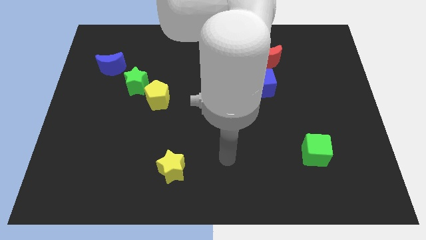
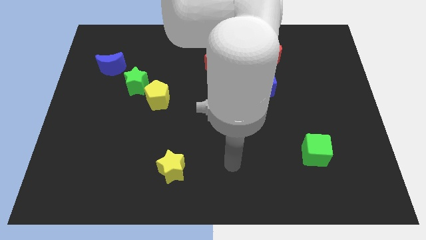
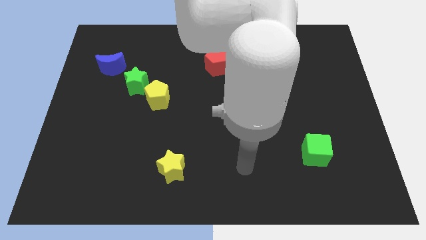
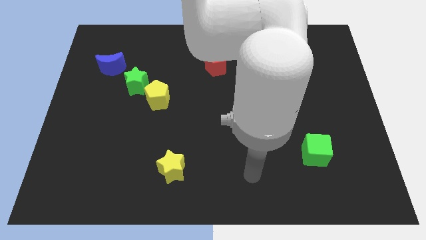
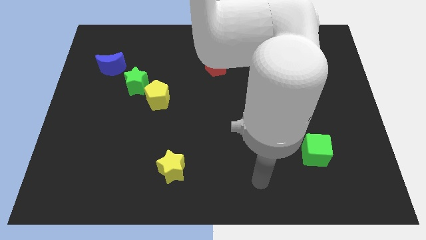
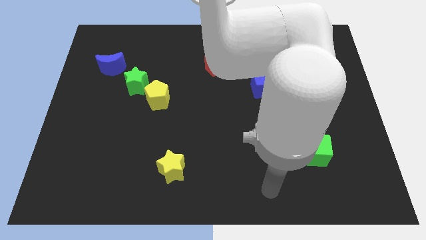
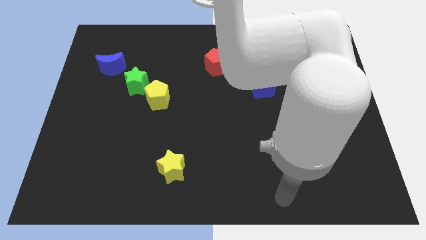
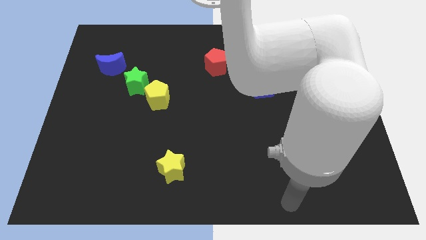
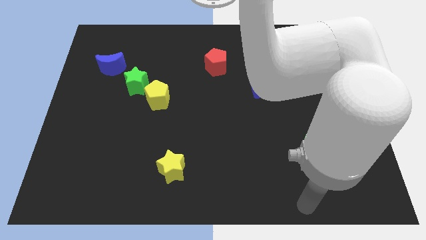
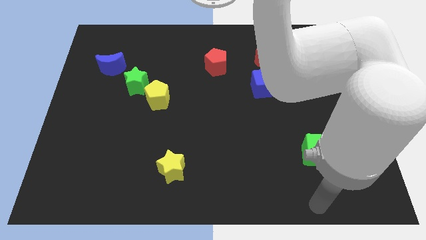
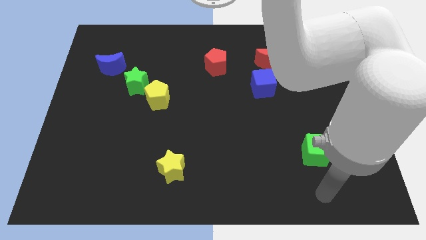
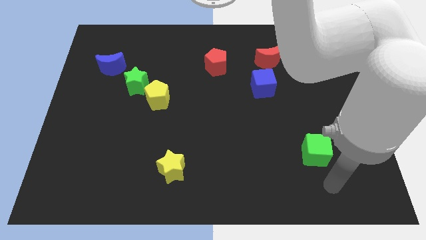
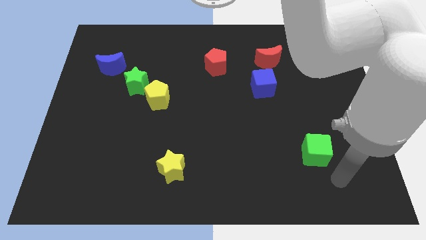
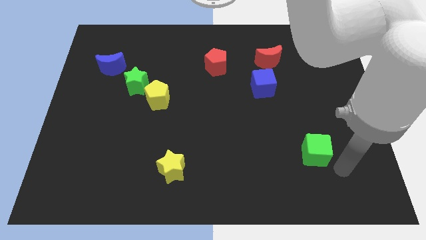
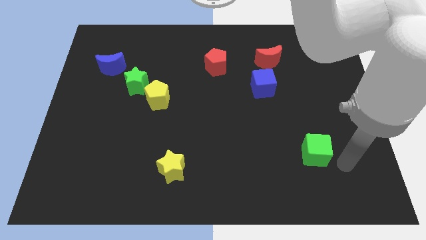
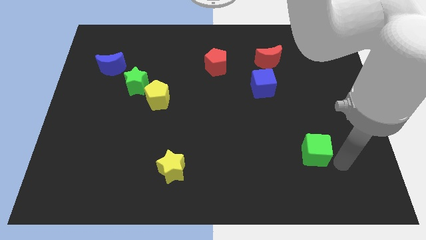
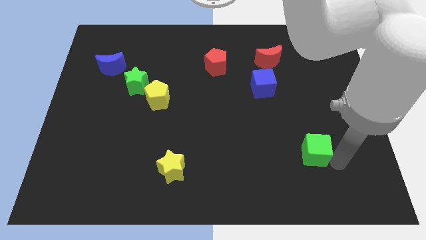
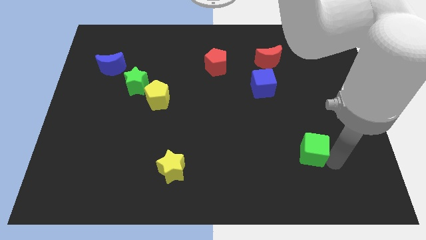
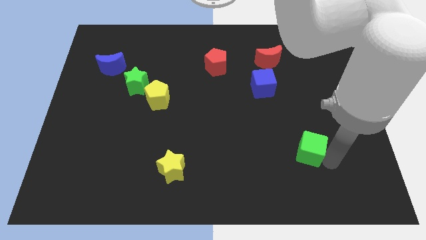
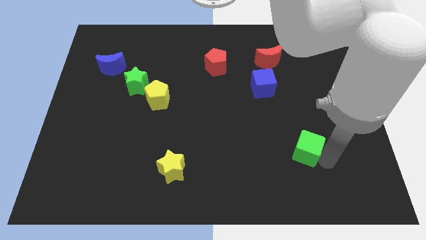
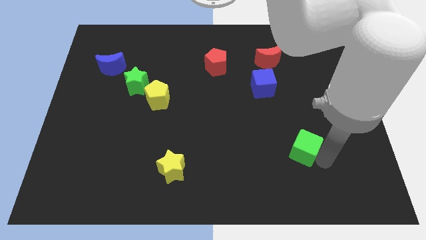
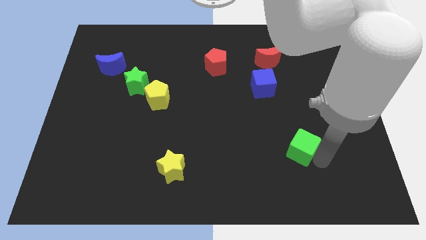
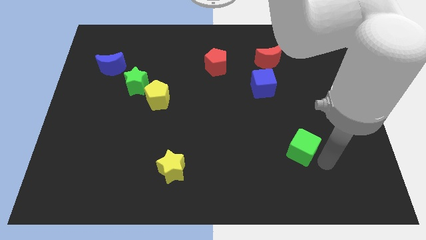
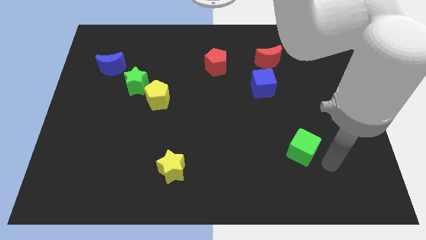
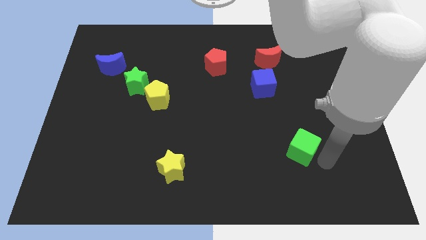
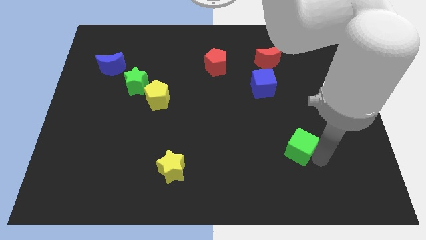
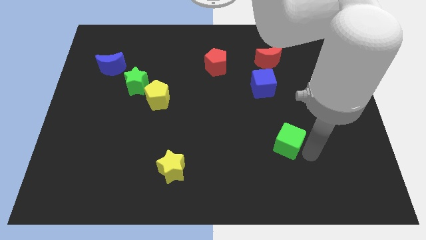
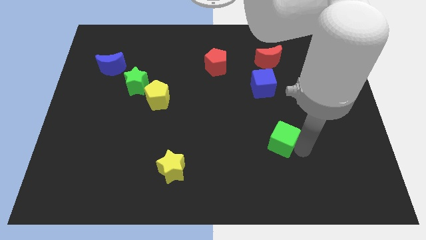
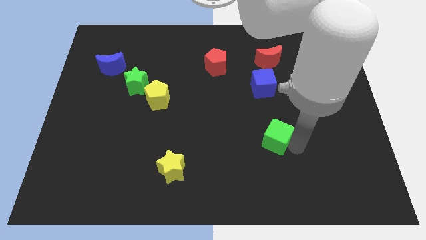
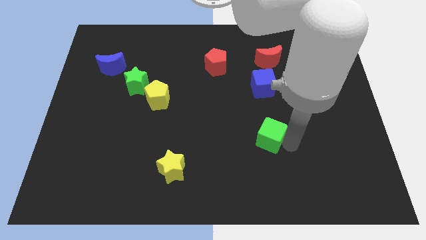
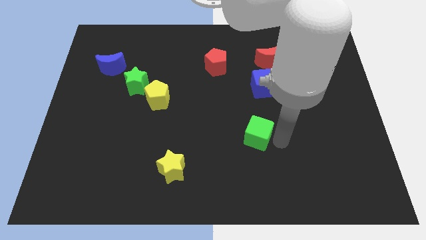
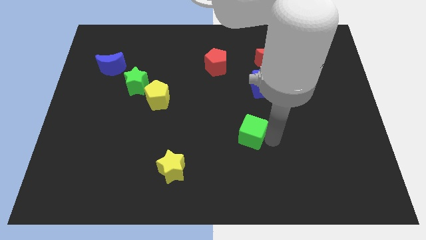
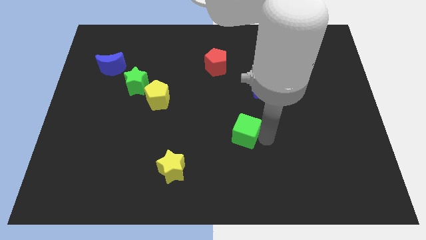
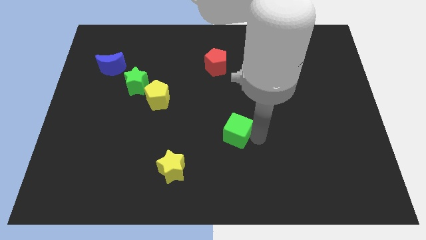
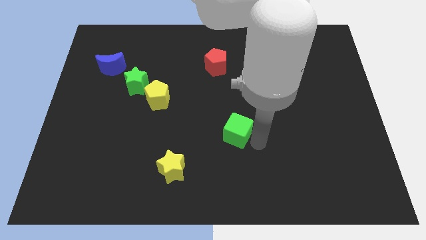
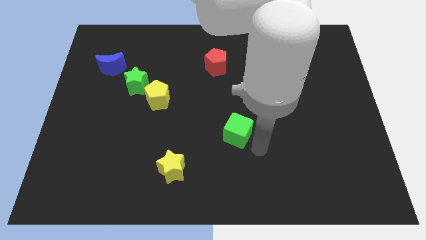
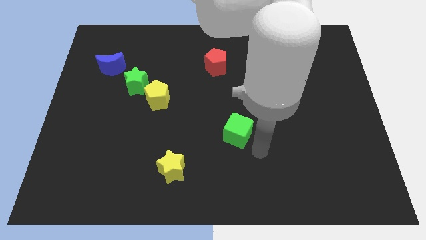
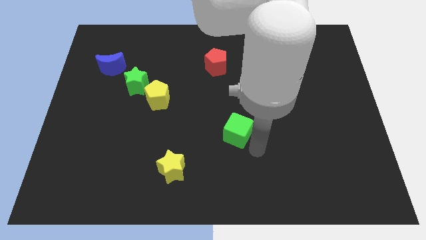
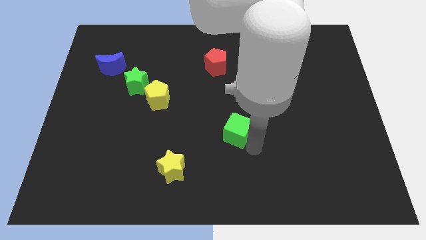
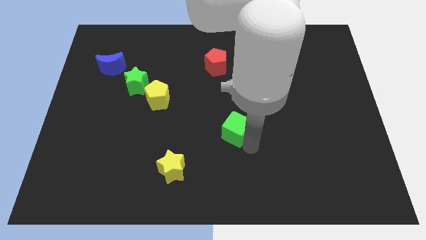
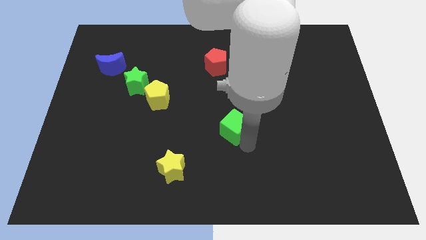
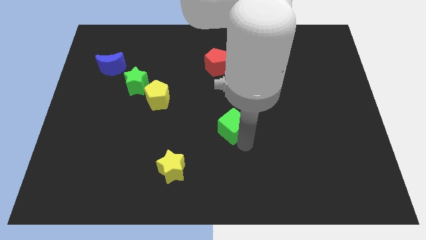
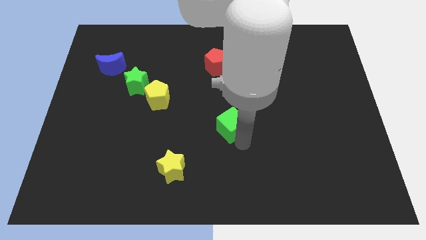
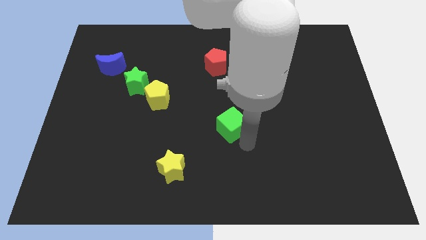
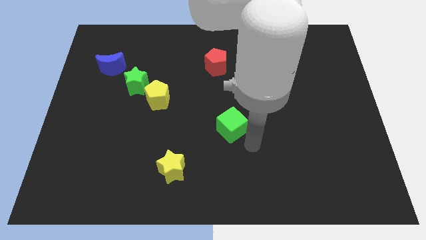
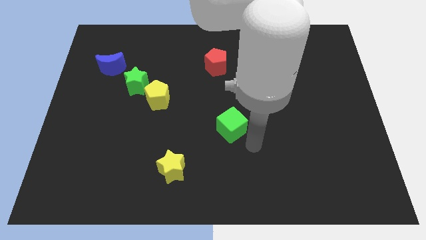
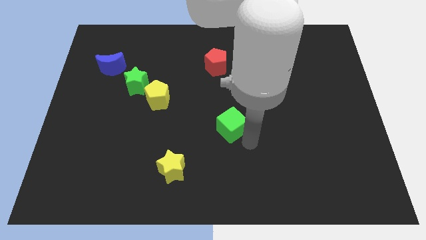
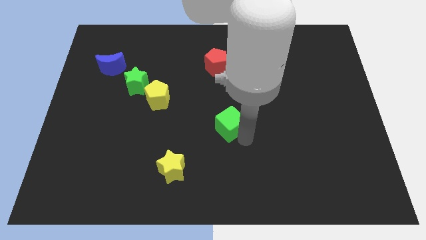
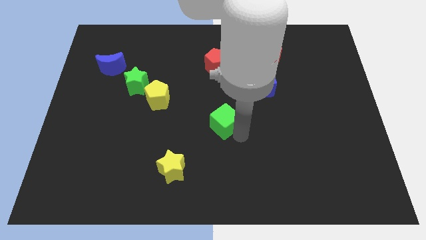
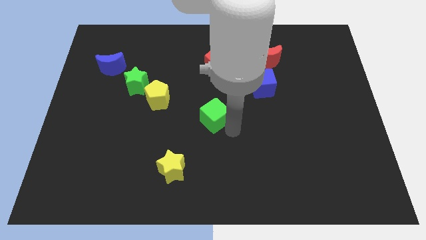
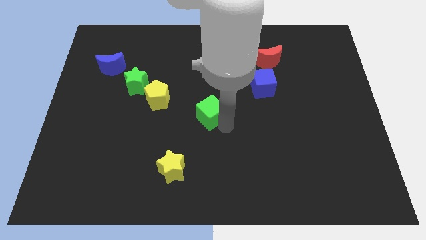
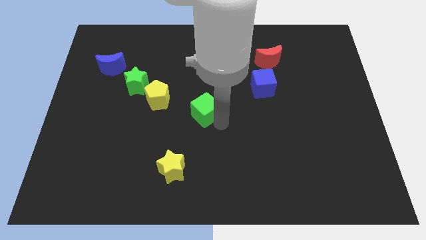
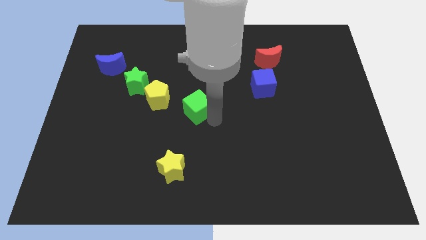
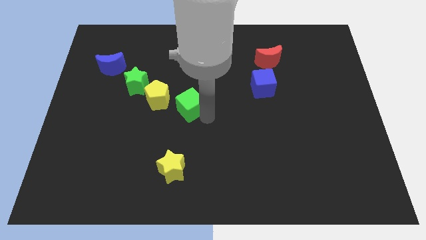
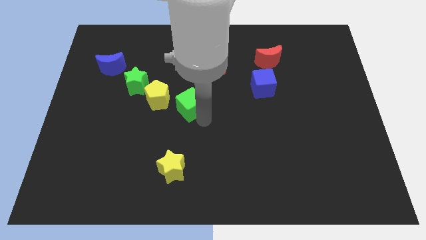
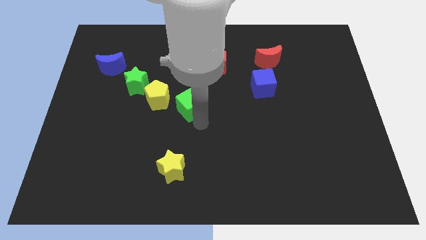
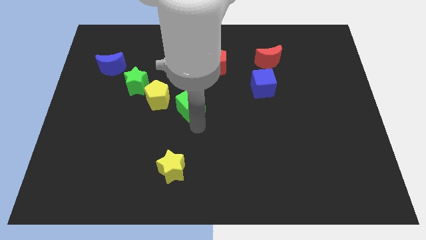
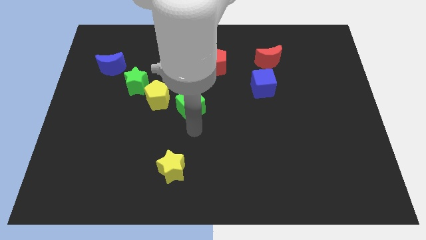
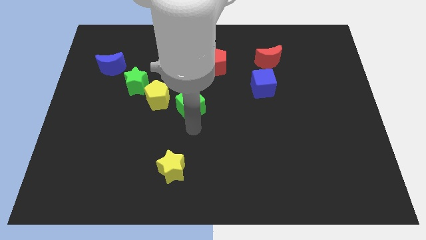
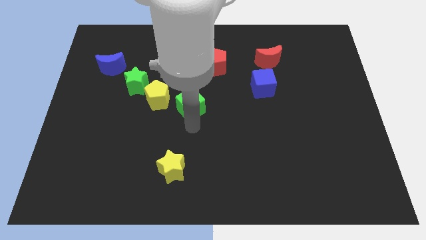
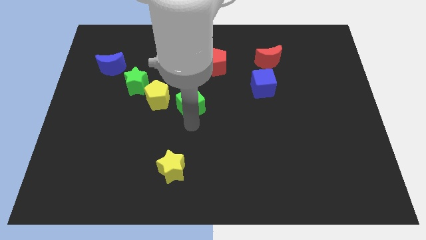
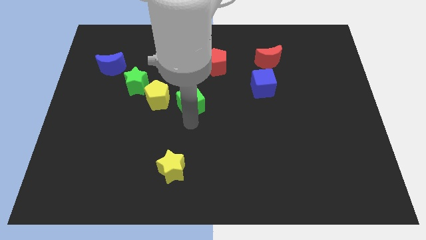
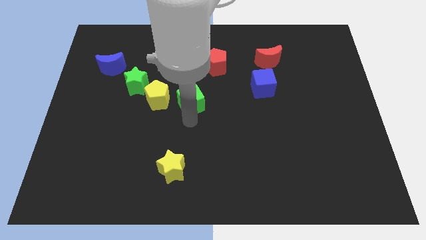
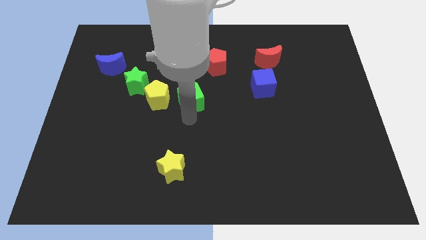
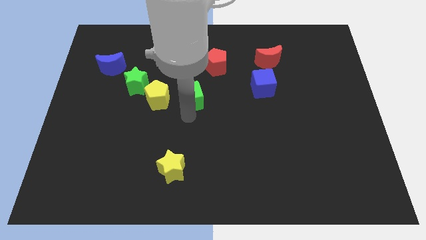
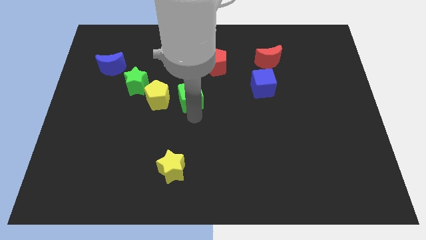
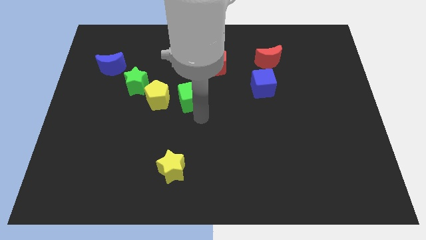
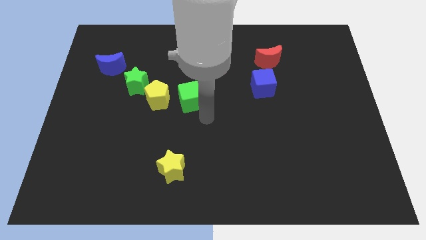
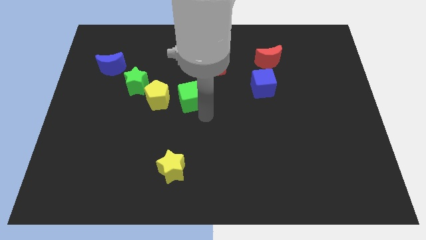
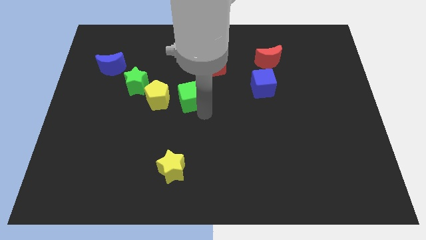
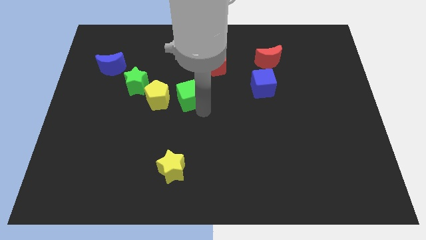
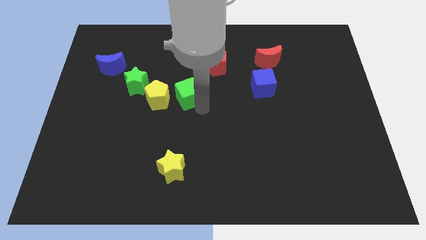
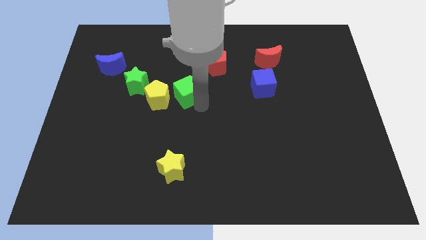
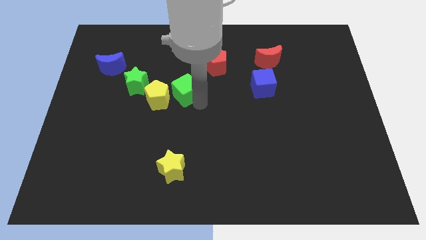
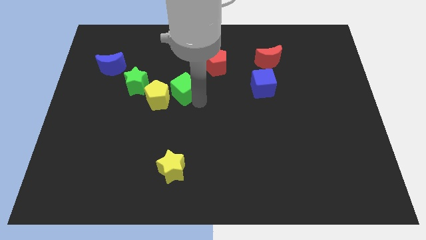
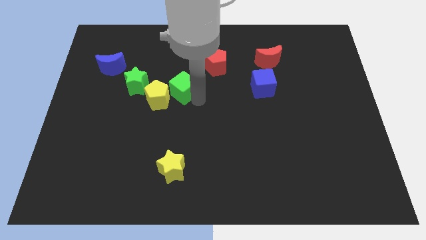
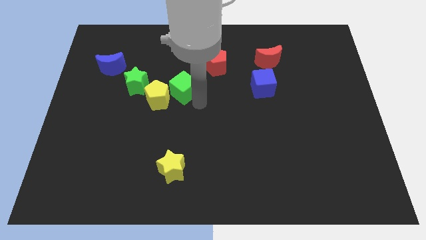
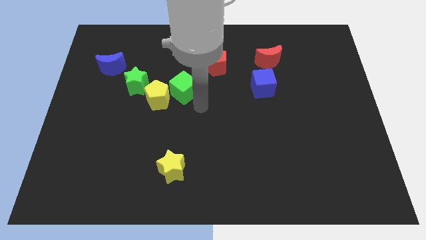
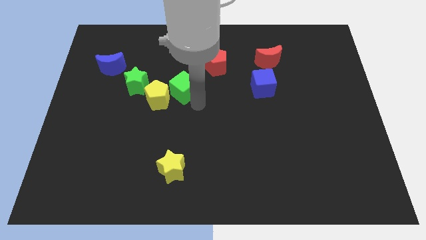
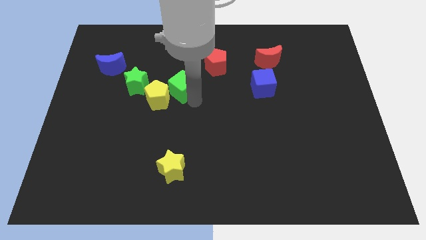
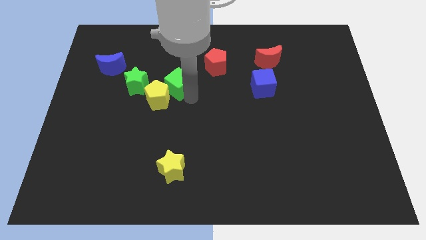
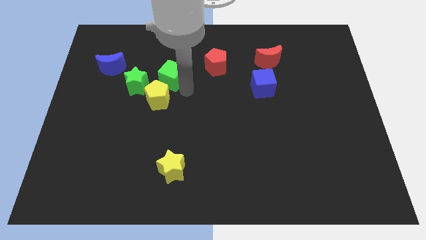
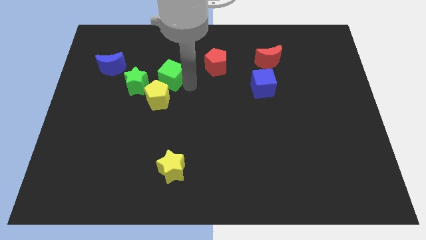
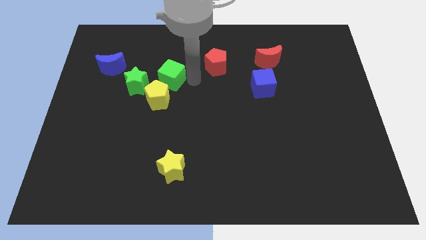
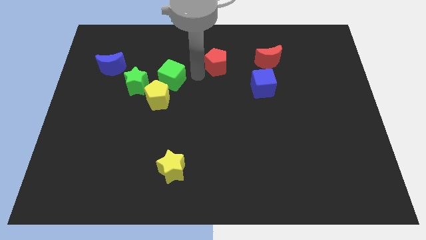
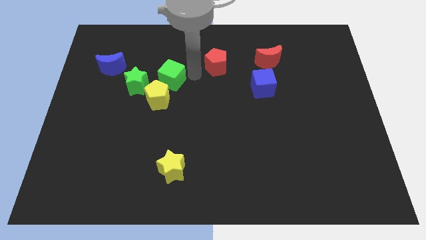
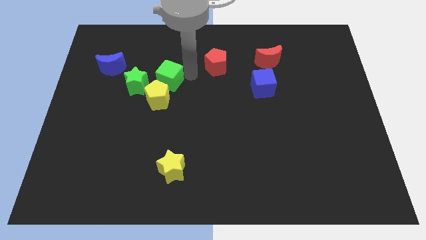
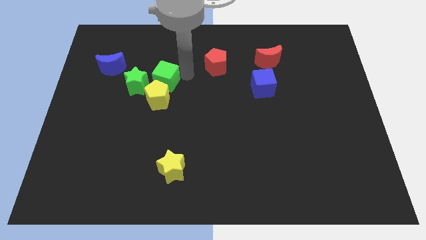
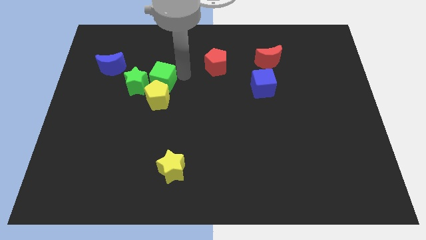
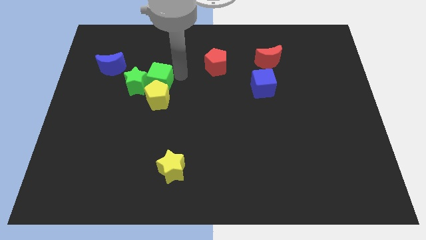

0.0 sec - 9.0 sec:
push the green cube towards the green star
